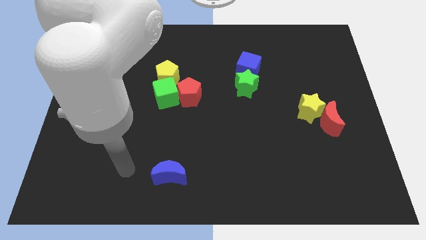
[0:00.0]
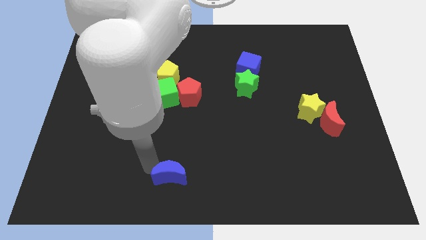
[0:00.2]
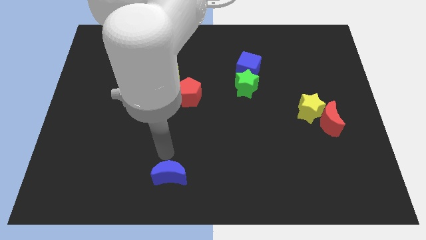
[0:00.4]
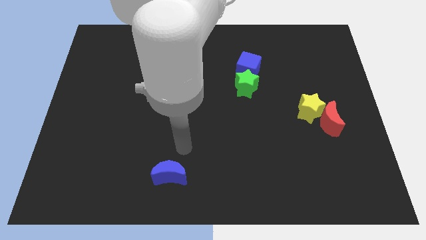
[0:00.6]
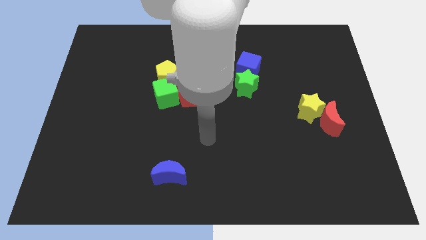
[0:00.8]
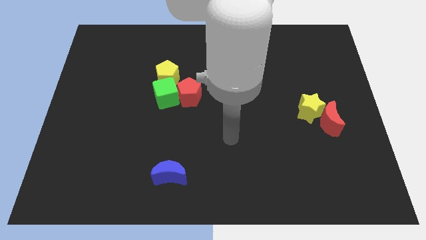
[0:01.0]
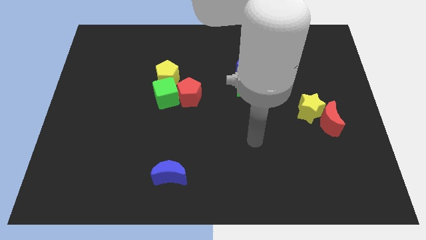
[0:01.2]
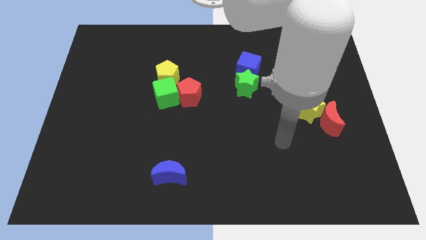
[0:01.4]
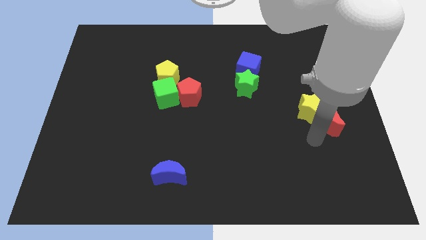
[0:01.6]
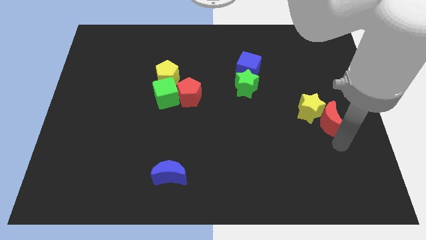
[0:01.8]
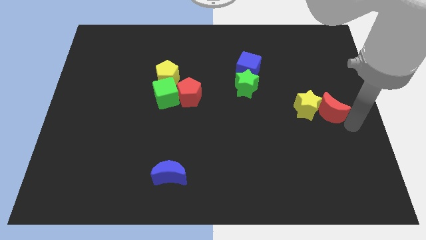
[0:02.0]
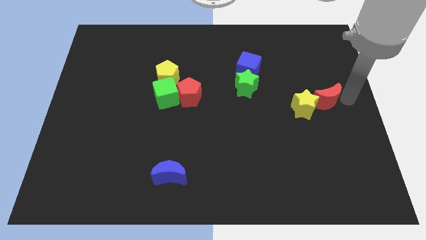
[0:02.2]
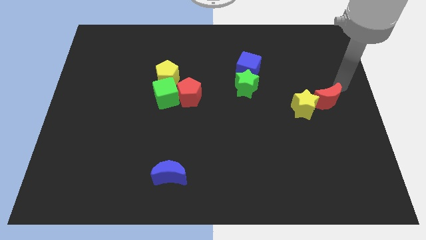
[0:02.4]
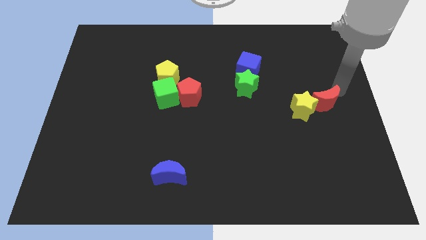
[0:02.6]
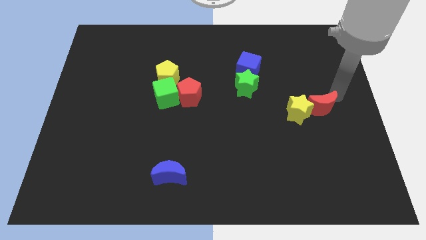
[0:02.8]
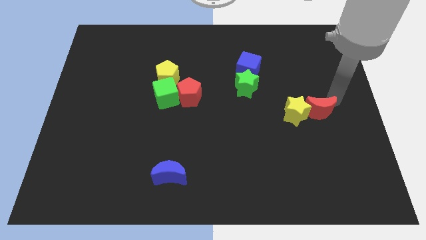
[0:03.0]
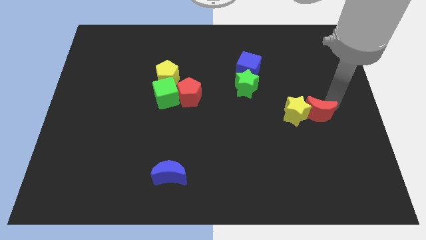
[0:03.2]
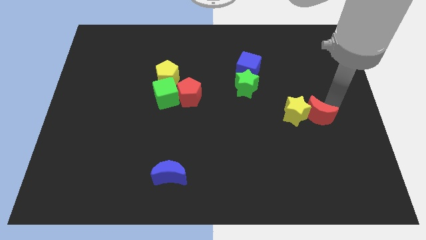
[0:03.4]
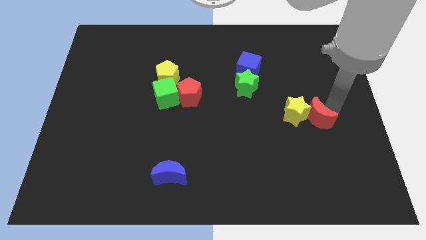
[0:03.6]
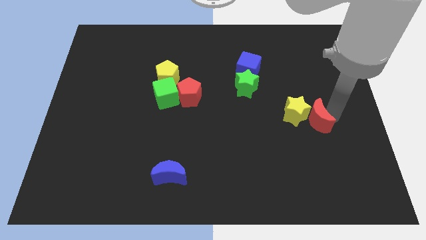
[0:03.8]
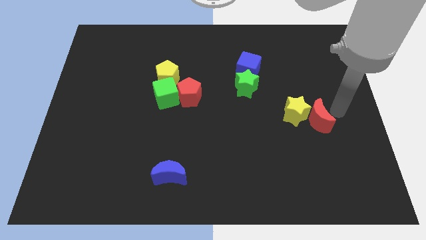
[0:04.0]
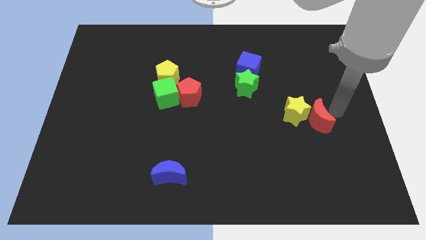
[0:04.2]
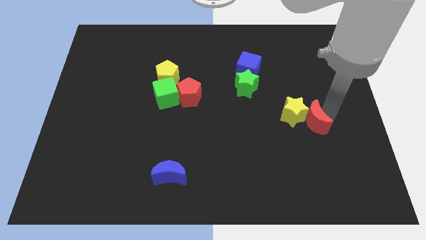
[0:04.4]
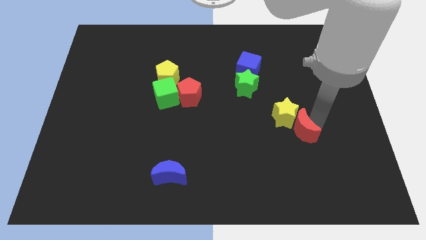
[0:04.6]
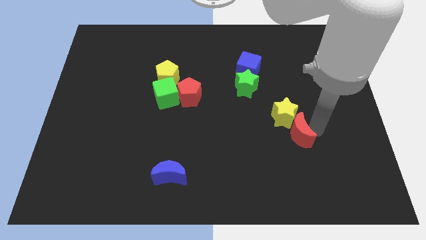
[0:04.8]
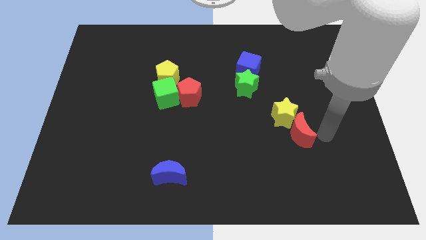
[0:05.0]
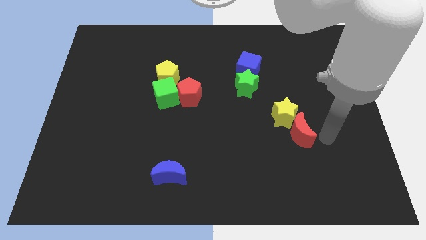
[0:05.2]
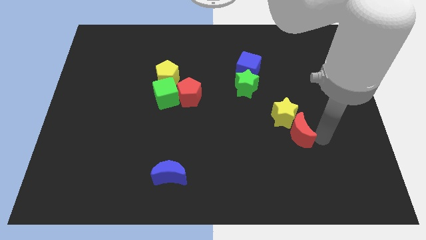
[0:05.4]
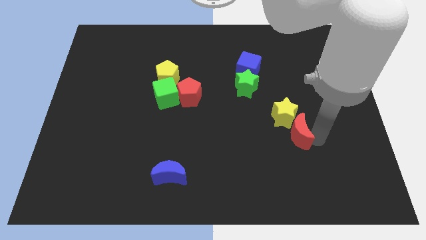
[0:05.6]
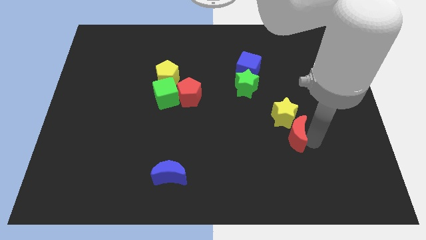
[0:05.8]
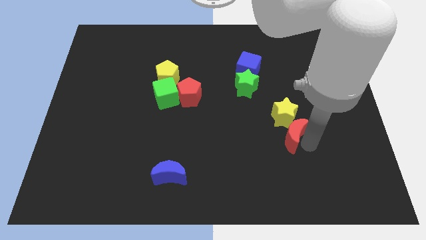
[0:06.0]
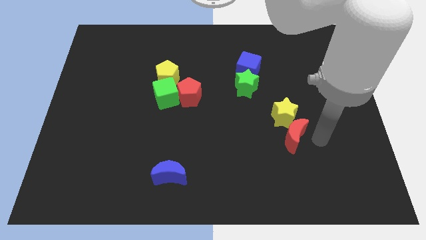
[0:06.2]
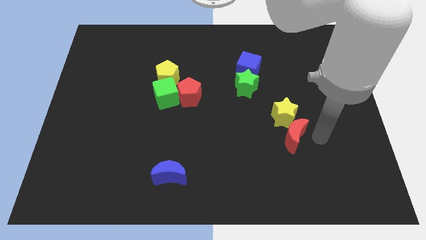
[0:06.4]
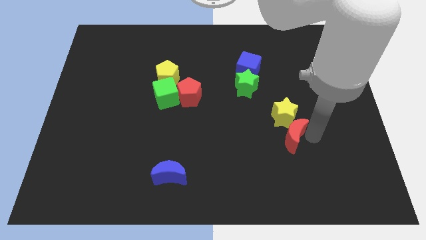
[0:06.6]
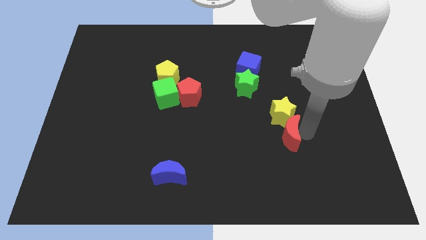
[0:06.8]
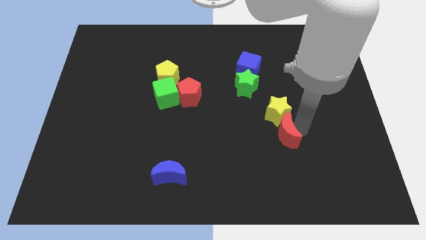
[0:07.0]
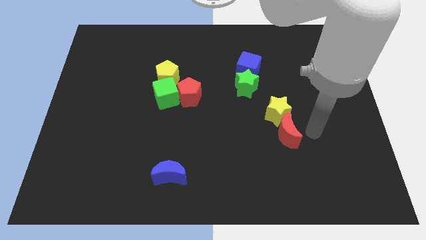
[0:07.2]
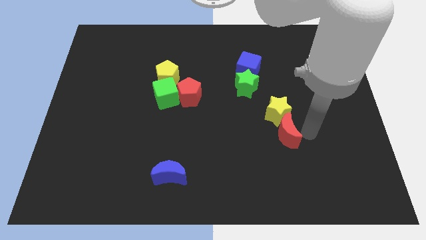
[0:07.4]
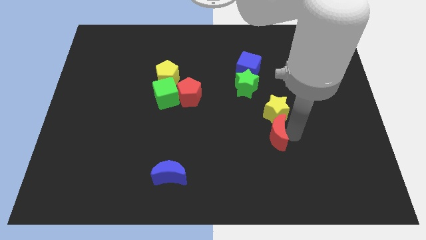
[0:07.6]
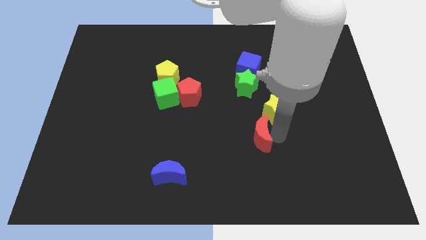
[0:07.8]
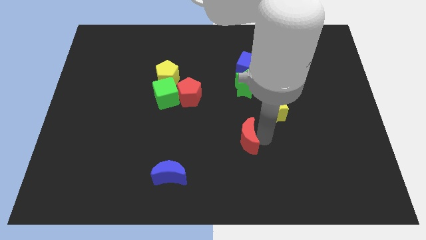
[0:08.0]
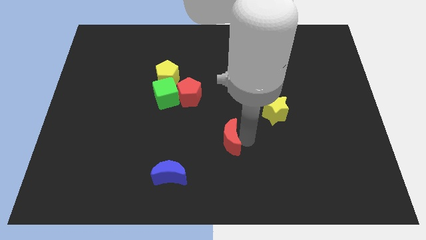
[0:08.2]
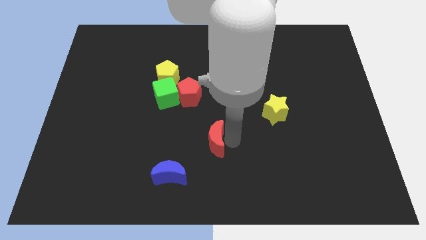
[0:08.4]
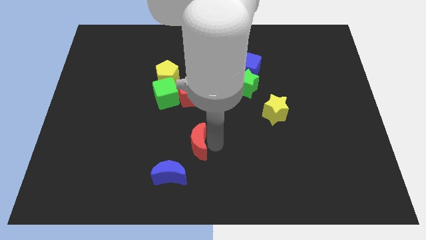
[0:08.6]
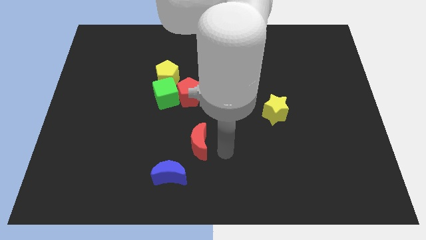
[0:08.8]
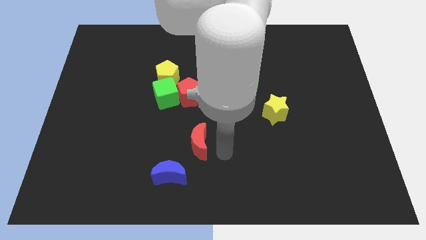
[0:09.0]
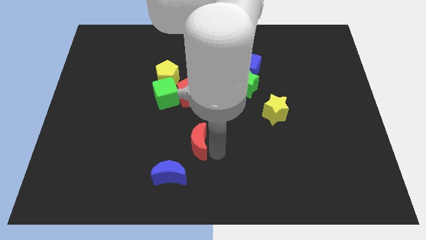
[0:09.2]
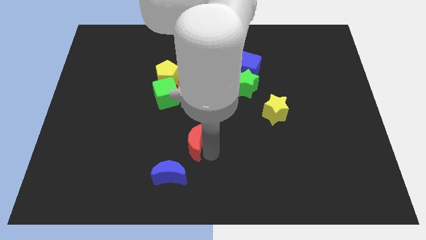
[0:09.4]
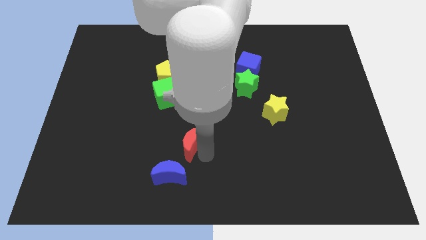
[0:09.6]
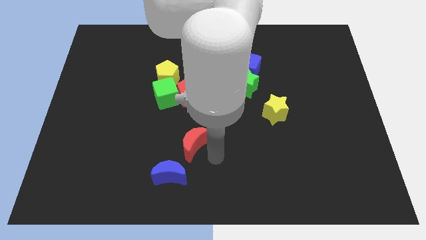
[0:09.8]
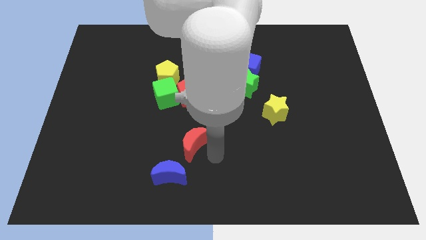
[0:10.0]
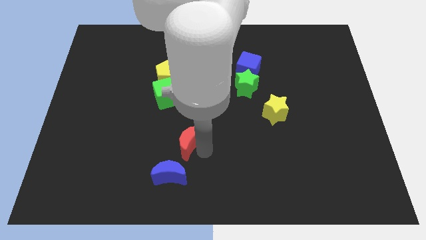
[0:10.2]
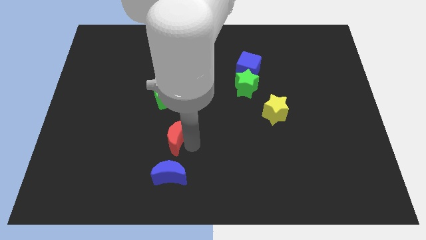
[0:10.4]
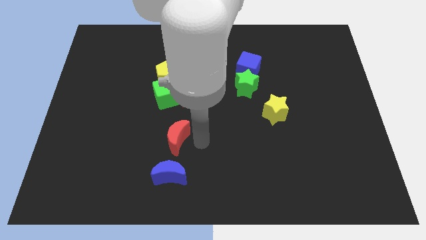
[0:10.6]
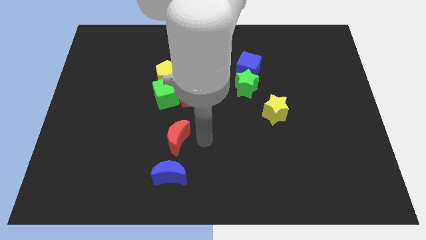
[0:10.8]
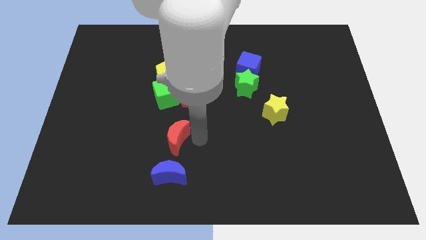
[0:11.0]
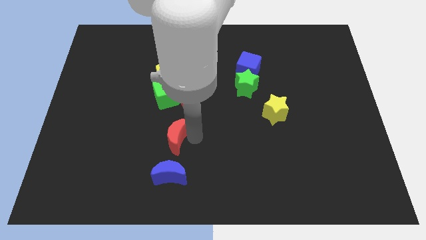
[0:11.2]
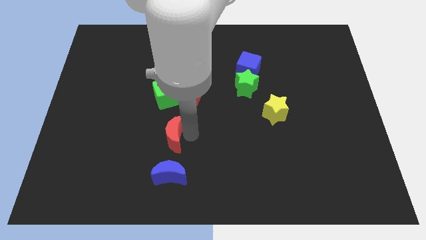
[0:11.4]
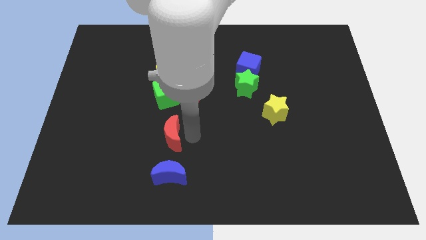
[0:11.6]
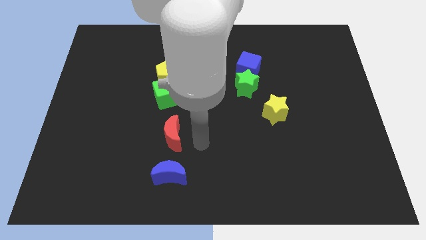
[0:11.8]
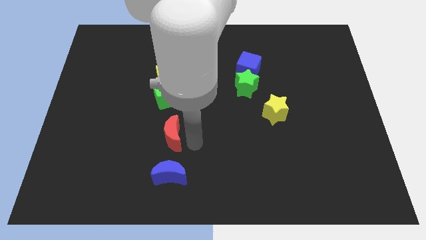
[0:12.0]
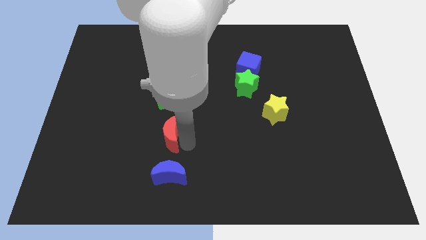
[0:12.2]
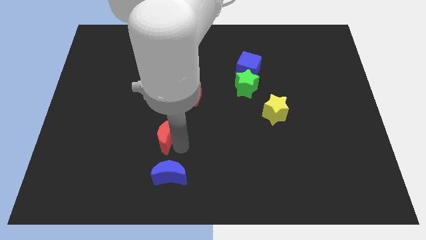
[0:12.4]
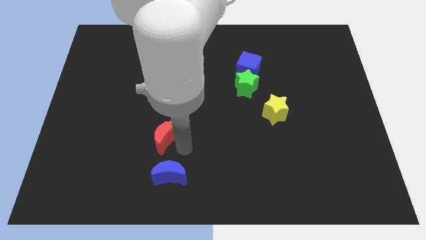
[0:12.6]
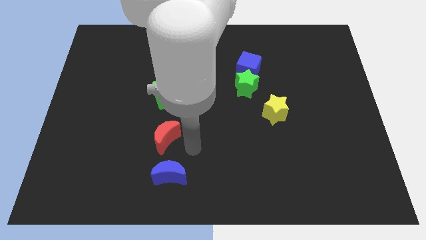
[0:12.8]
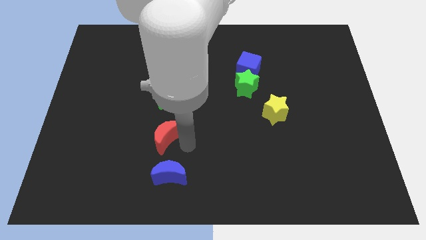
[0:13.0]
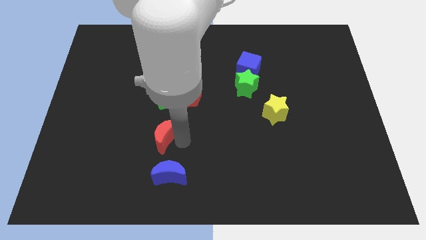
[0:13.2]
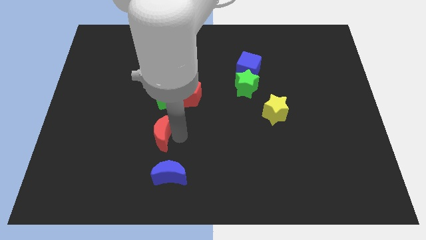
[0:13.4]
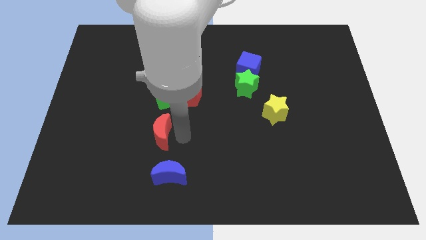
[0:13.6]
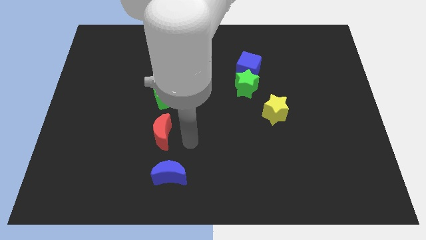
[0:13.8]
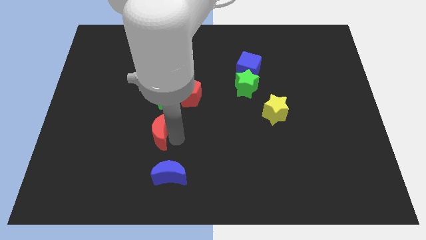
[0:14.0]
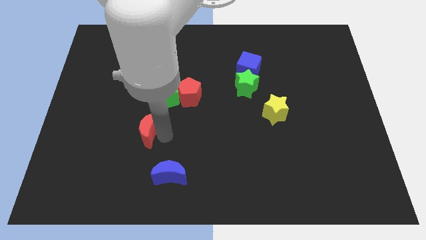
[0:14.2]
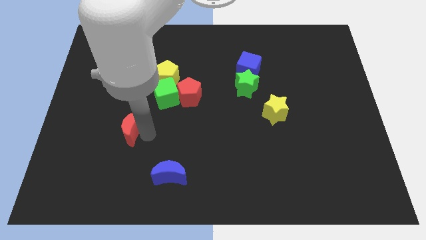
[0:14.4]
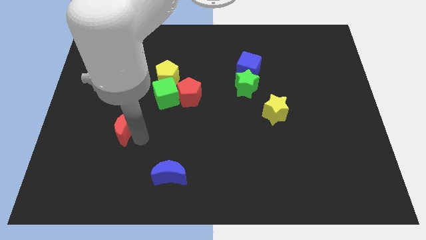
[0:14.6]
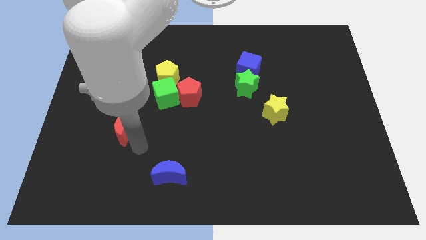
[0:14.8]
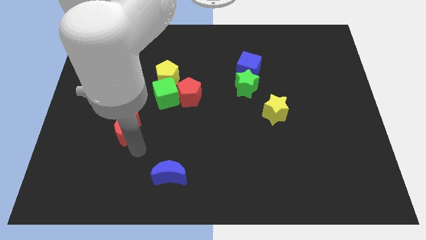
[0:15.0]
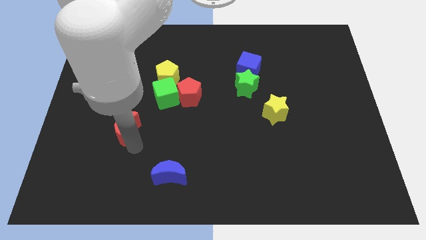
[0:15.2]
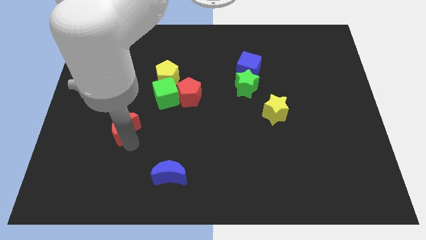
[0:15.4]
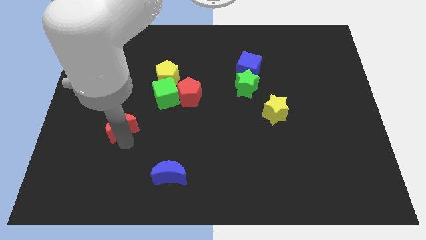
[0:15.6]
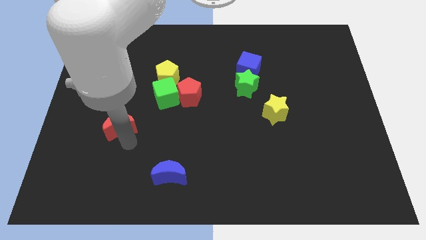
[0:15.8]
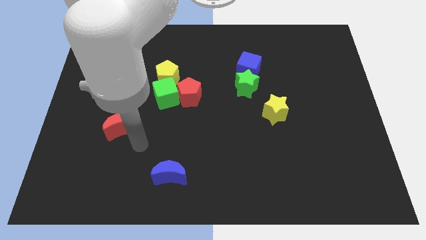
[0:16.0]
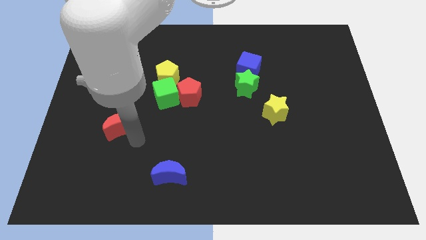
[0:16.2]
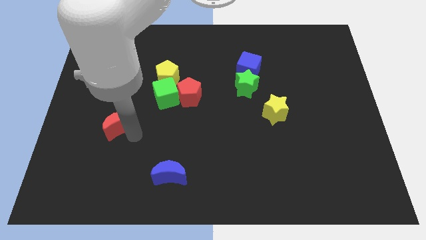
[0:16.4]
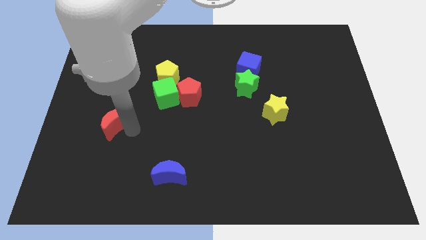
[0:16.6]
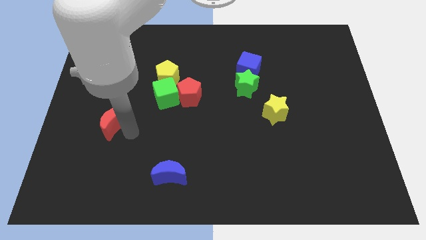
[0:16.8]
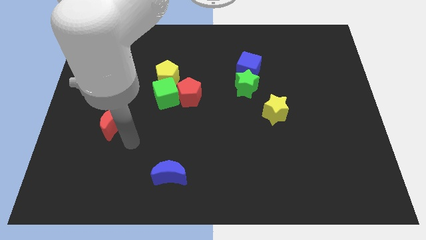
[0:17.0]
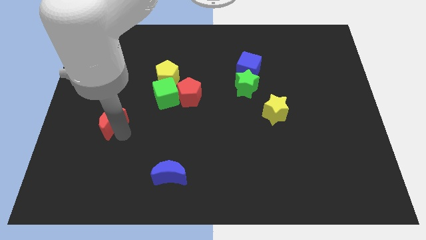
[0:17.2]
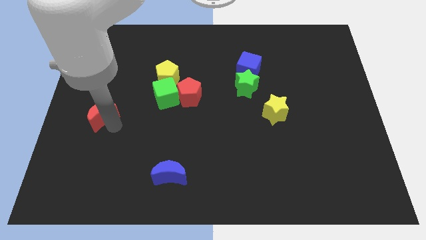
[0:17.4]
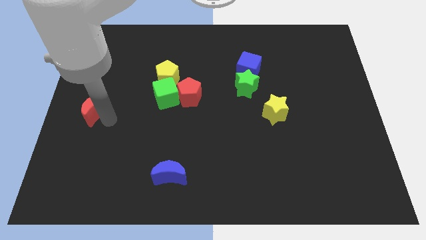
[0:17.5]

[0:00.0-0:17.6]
slide the red moon to the left side of the board
